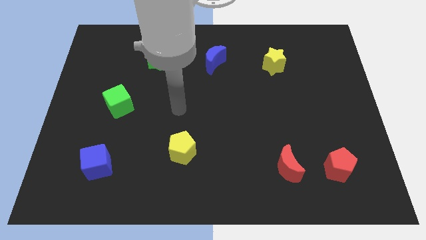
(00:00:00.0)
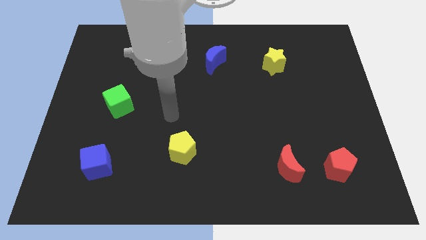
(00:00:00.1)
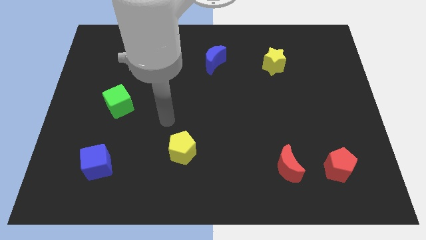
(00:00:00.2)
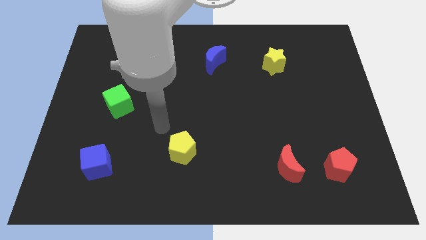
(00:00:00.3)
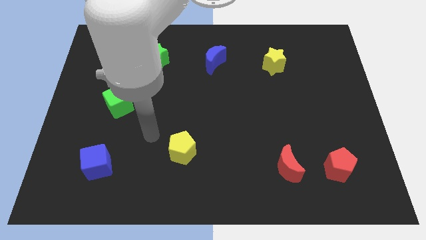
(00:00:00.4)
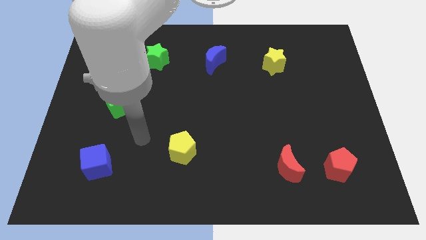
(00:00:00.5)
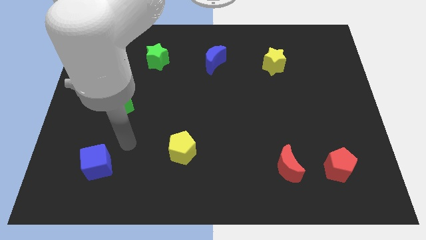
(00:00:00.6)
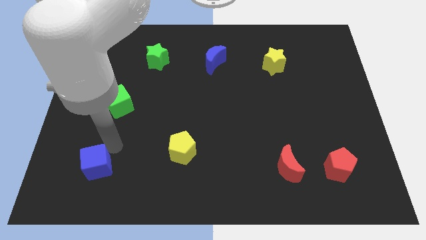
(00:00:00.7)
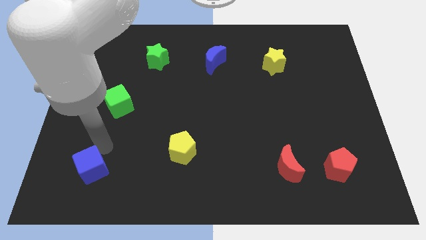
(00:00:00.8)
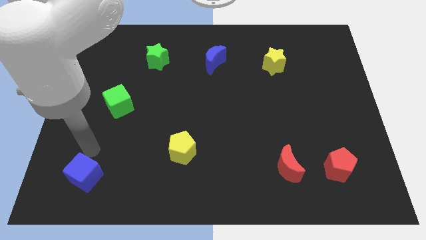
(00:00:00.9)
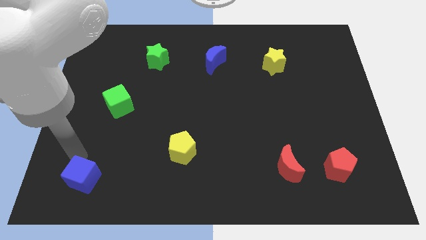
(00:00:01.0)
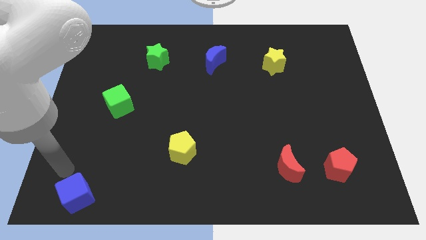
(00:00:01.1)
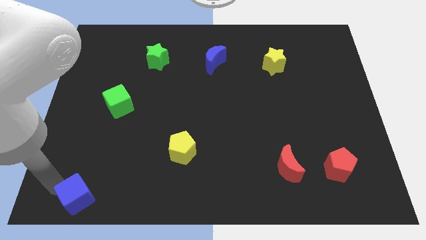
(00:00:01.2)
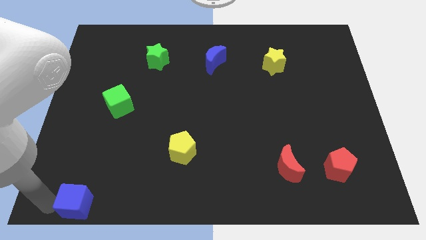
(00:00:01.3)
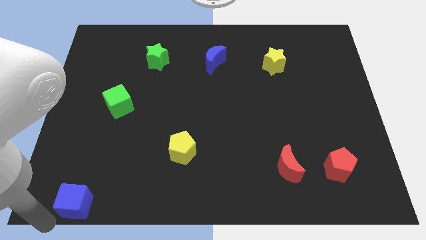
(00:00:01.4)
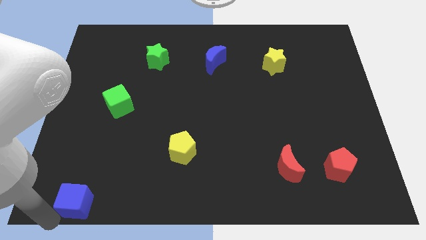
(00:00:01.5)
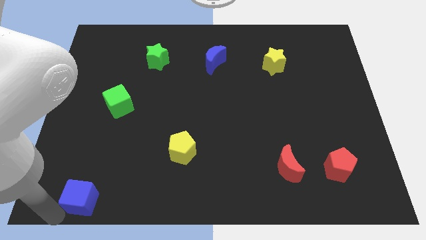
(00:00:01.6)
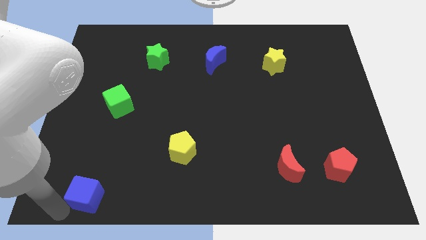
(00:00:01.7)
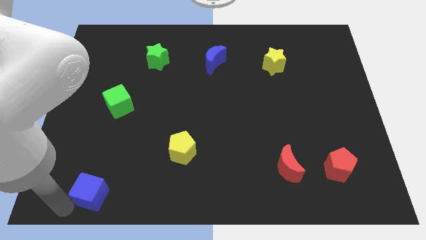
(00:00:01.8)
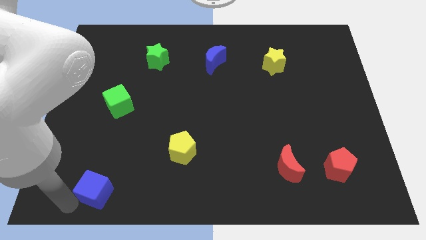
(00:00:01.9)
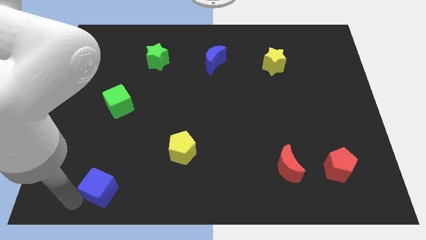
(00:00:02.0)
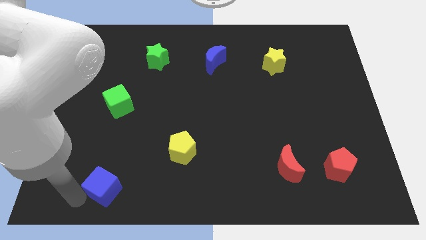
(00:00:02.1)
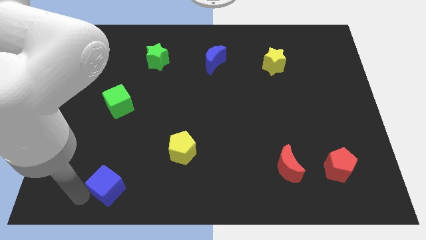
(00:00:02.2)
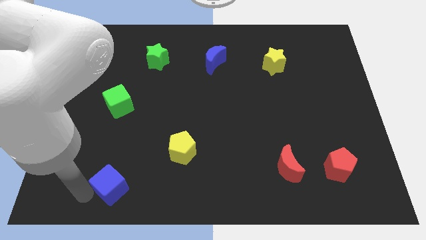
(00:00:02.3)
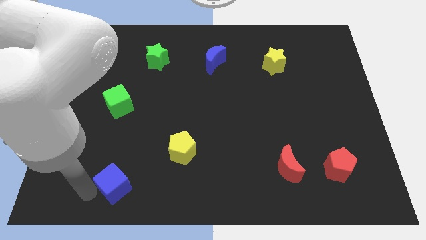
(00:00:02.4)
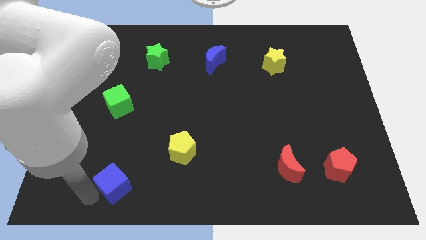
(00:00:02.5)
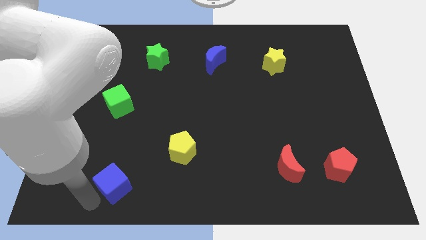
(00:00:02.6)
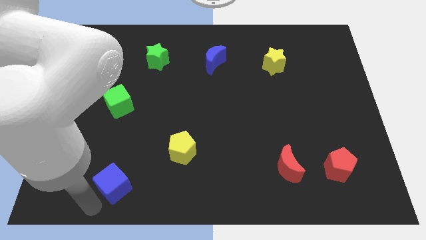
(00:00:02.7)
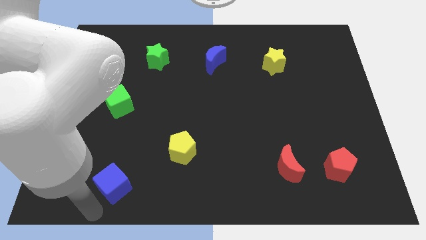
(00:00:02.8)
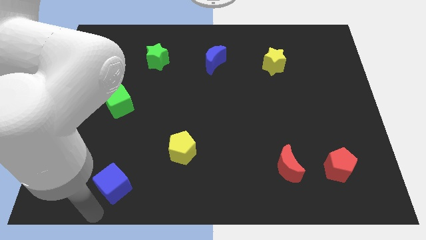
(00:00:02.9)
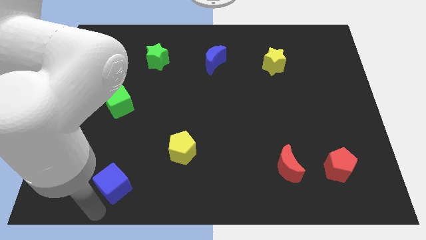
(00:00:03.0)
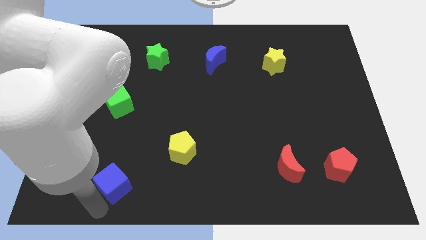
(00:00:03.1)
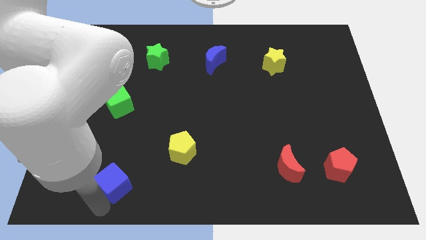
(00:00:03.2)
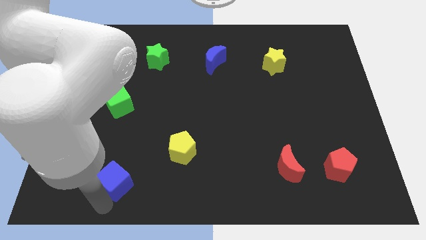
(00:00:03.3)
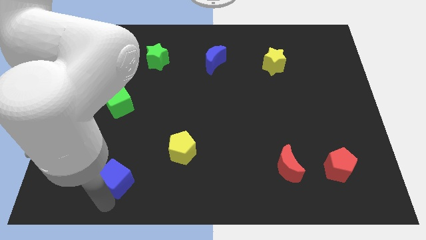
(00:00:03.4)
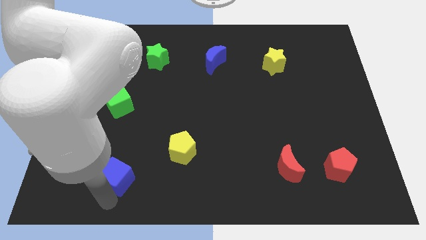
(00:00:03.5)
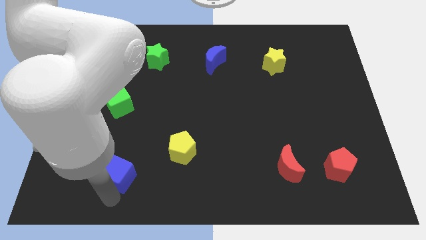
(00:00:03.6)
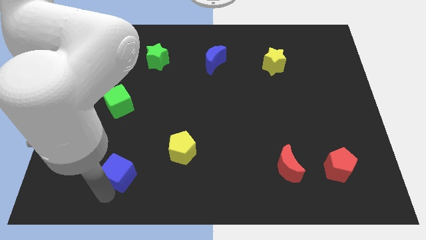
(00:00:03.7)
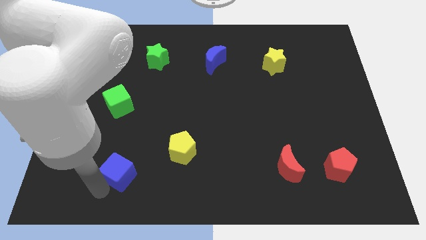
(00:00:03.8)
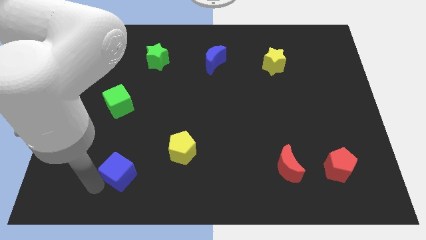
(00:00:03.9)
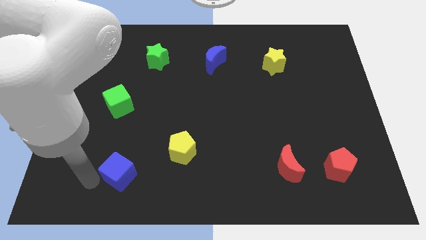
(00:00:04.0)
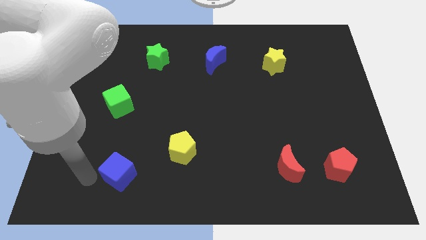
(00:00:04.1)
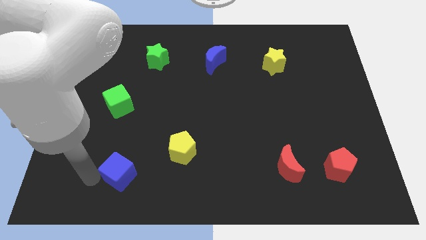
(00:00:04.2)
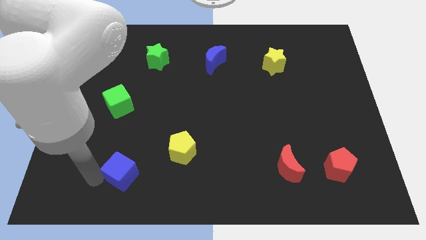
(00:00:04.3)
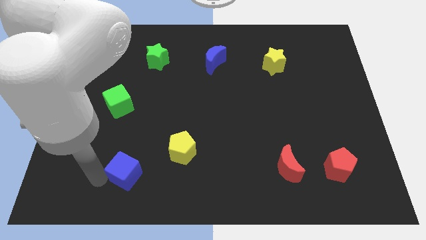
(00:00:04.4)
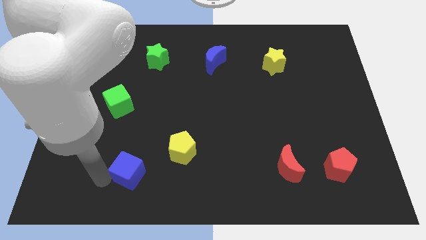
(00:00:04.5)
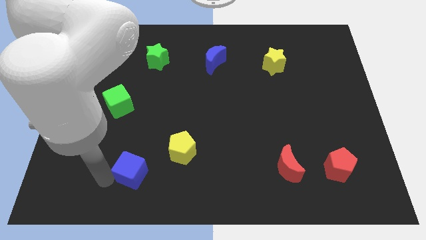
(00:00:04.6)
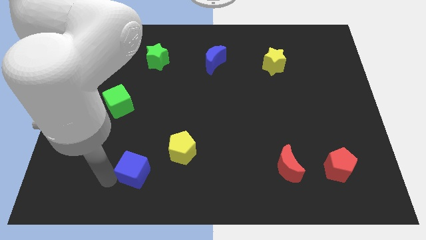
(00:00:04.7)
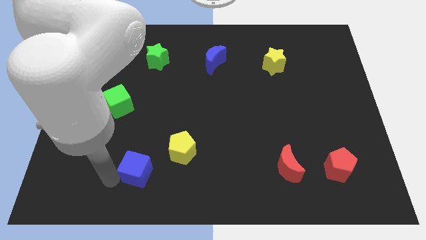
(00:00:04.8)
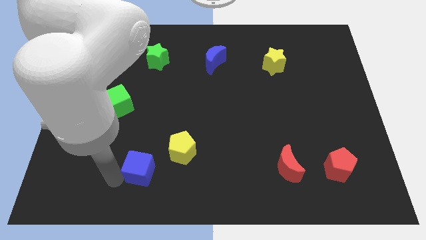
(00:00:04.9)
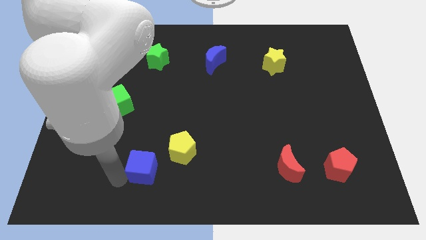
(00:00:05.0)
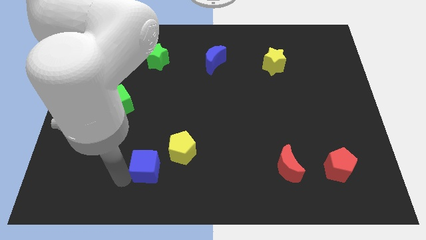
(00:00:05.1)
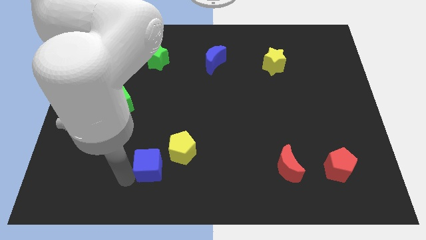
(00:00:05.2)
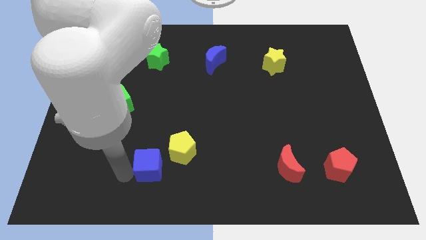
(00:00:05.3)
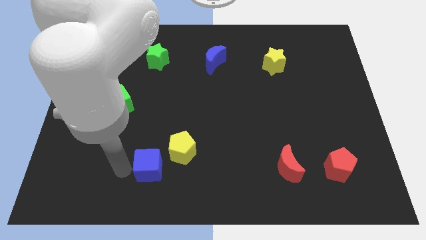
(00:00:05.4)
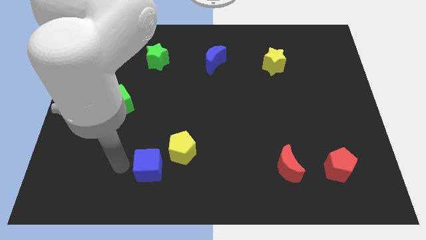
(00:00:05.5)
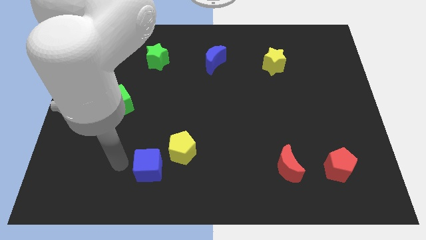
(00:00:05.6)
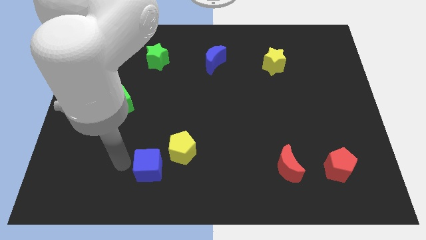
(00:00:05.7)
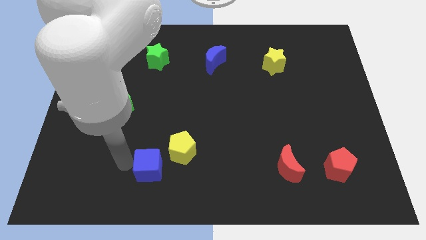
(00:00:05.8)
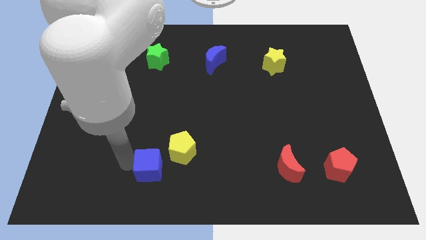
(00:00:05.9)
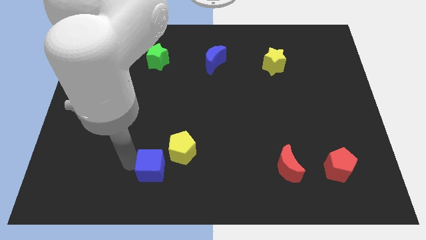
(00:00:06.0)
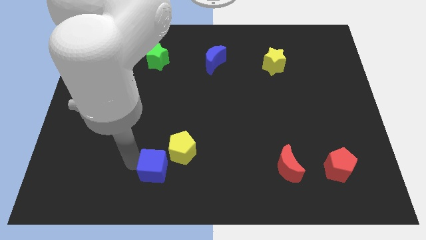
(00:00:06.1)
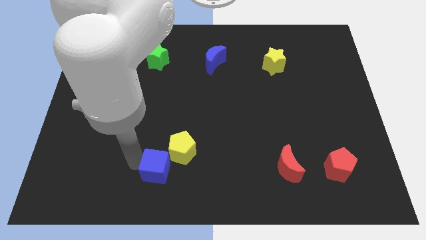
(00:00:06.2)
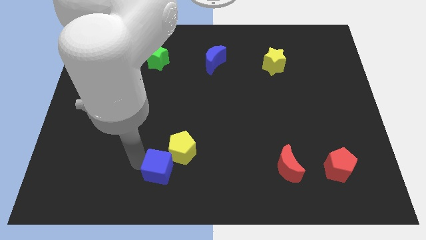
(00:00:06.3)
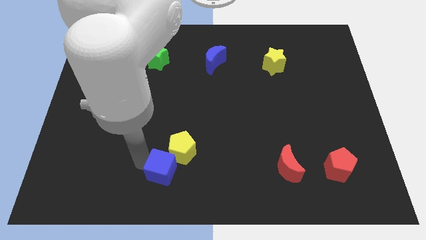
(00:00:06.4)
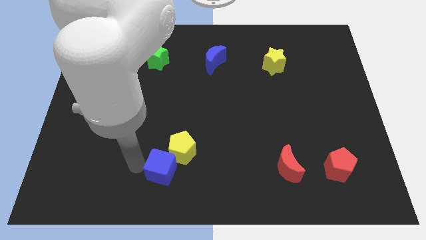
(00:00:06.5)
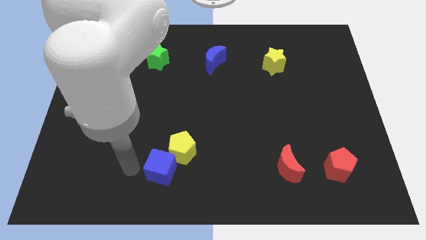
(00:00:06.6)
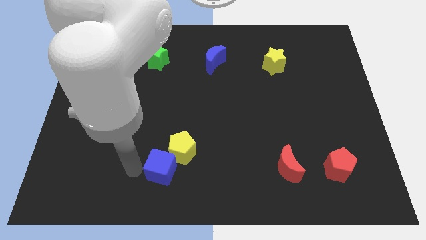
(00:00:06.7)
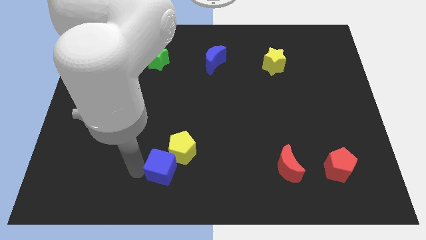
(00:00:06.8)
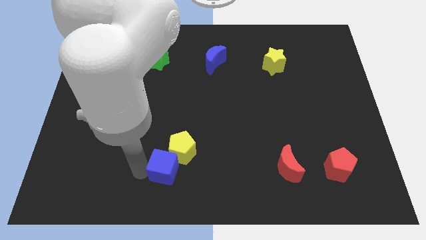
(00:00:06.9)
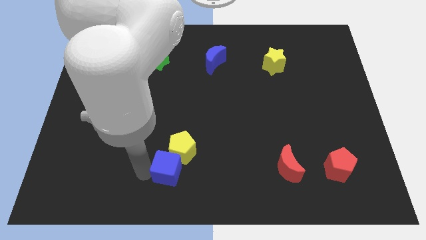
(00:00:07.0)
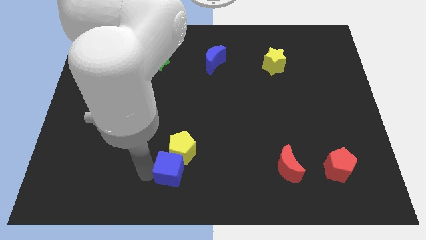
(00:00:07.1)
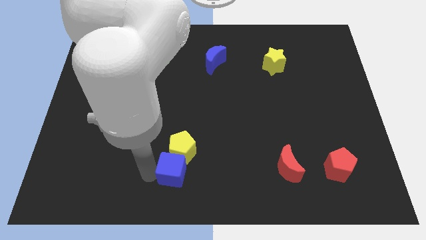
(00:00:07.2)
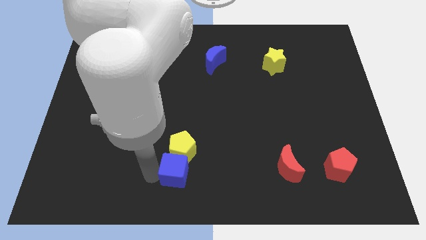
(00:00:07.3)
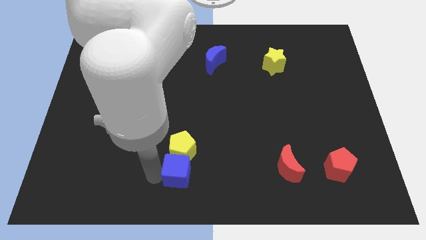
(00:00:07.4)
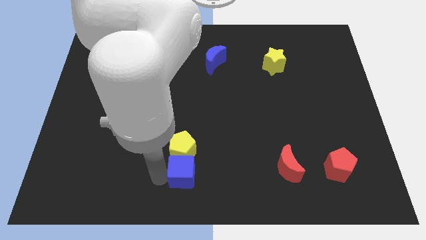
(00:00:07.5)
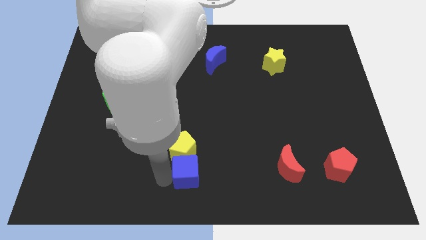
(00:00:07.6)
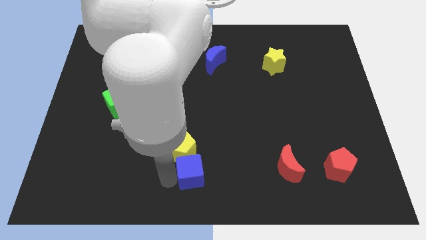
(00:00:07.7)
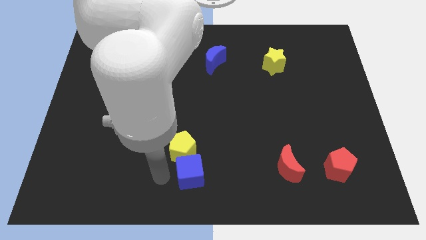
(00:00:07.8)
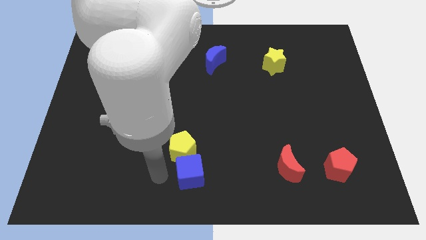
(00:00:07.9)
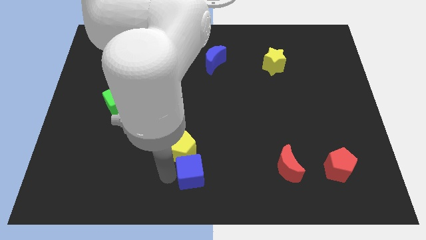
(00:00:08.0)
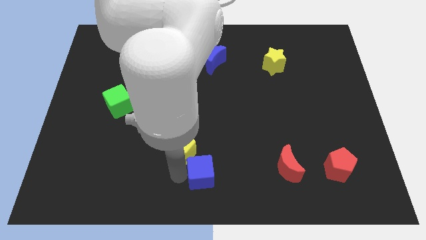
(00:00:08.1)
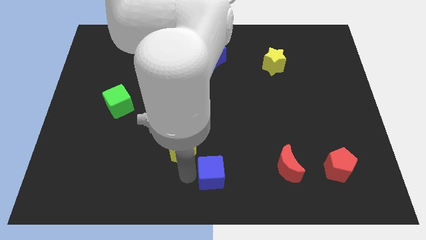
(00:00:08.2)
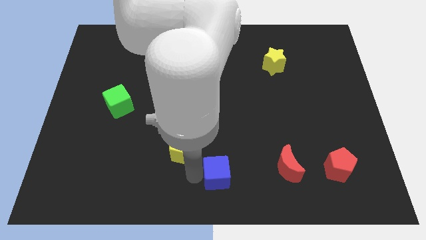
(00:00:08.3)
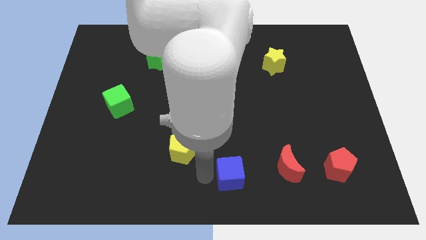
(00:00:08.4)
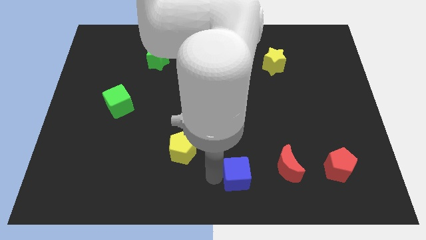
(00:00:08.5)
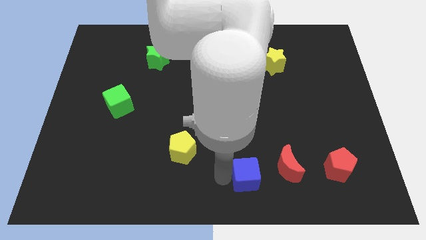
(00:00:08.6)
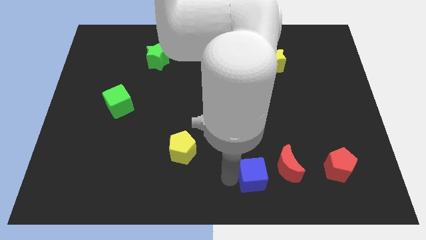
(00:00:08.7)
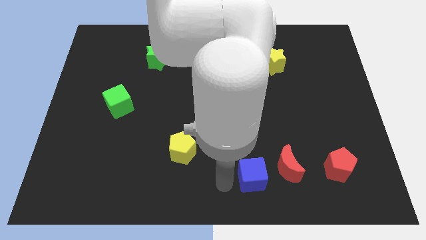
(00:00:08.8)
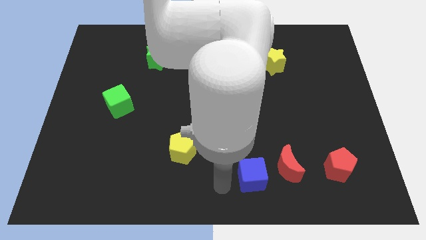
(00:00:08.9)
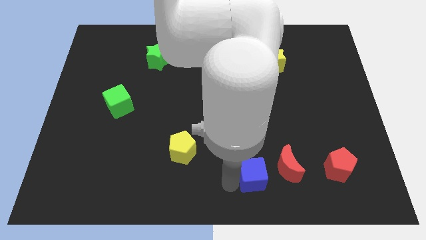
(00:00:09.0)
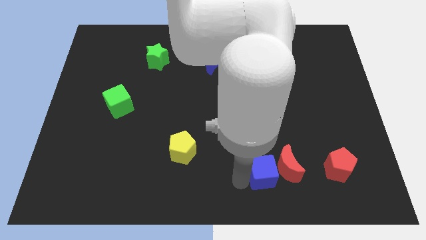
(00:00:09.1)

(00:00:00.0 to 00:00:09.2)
put the blue cube towards the red moon
